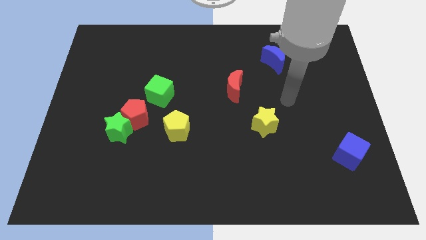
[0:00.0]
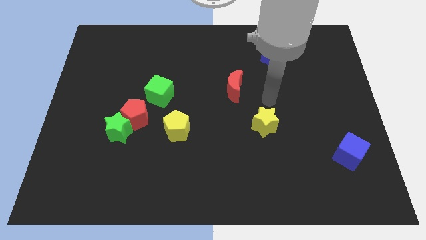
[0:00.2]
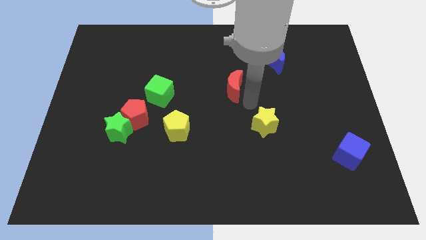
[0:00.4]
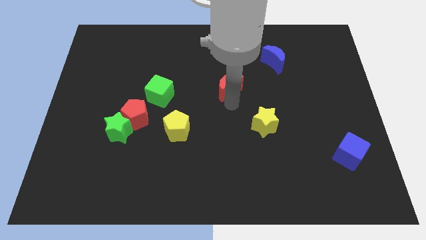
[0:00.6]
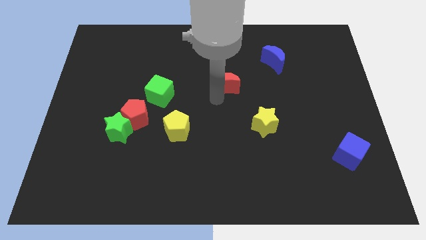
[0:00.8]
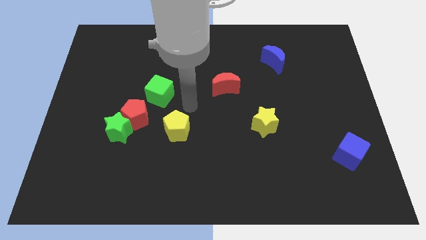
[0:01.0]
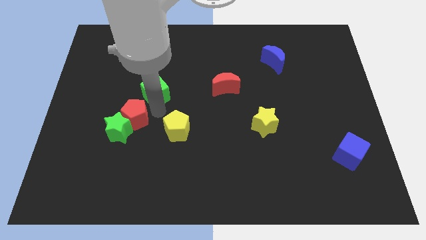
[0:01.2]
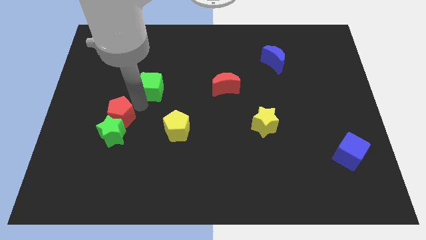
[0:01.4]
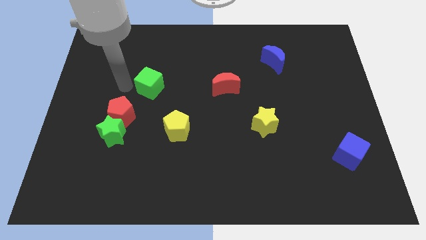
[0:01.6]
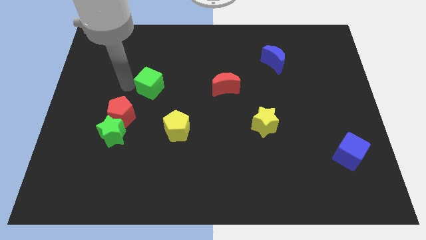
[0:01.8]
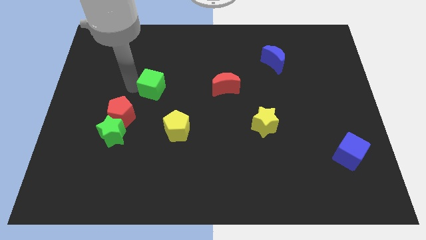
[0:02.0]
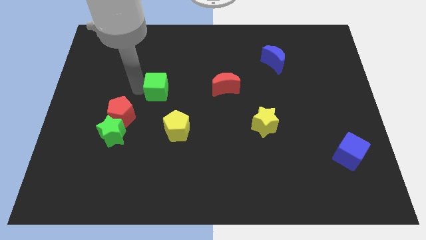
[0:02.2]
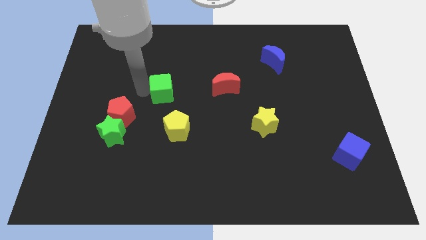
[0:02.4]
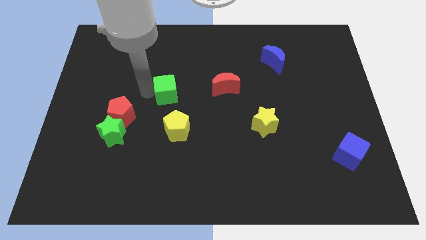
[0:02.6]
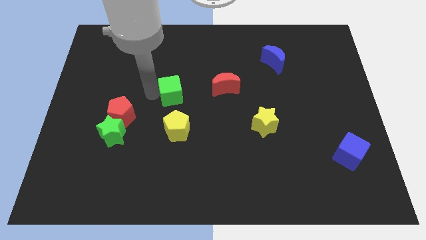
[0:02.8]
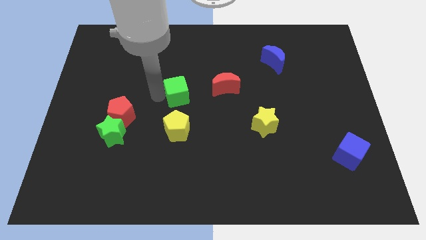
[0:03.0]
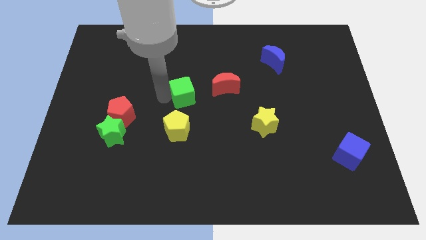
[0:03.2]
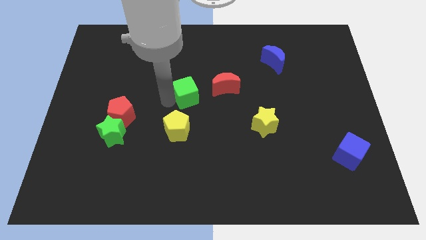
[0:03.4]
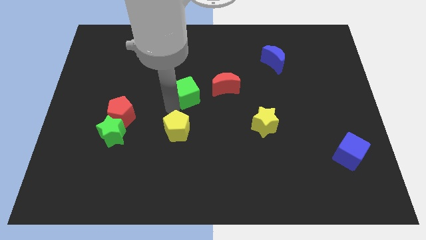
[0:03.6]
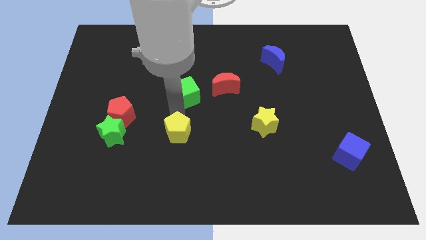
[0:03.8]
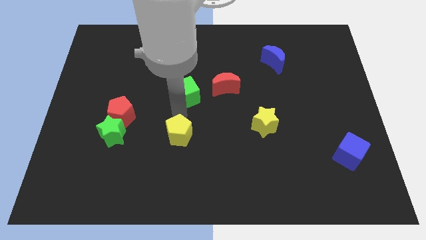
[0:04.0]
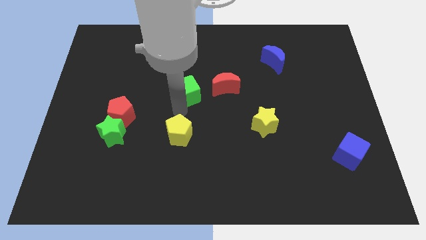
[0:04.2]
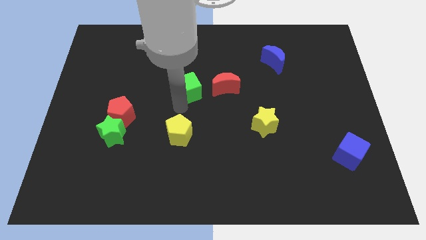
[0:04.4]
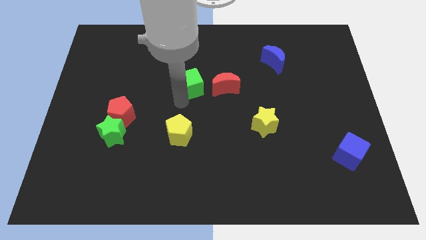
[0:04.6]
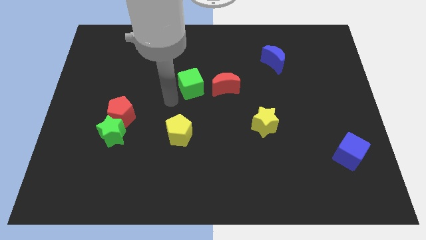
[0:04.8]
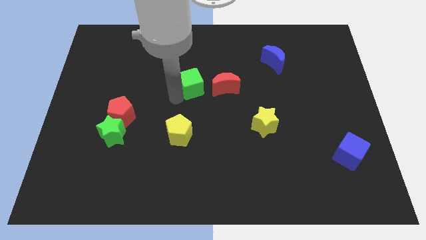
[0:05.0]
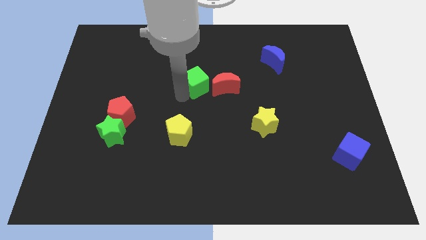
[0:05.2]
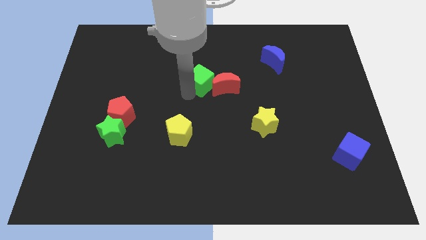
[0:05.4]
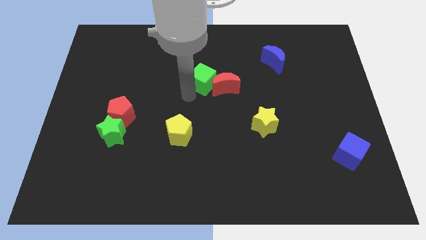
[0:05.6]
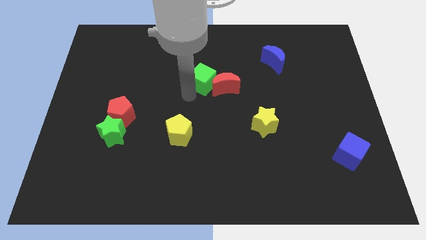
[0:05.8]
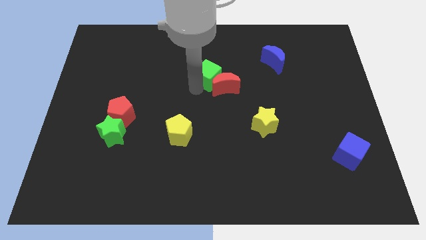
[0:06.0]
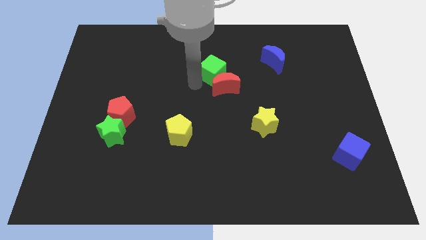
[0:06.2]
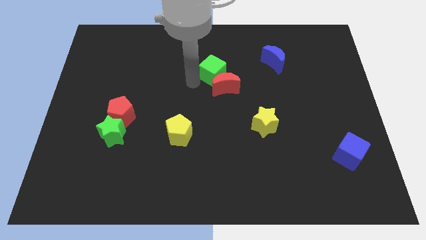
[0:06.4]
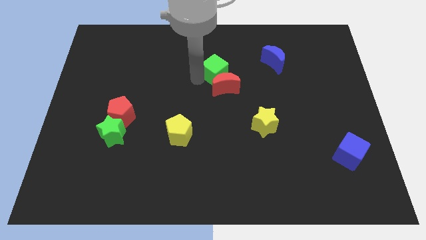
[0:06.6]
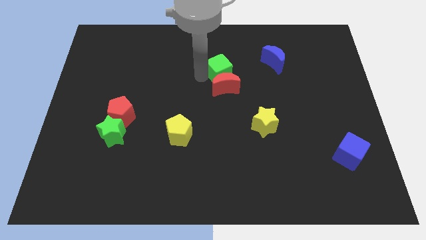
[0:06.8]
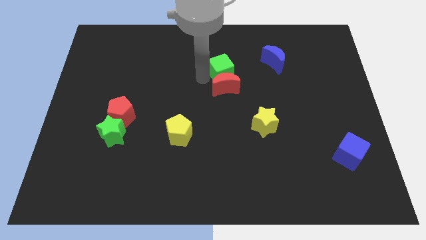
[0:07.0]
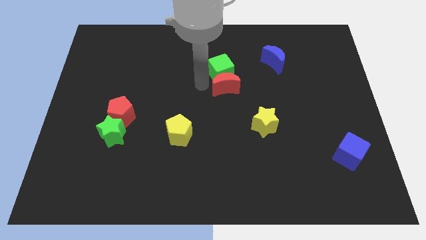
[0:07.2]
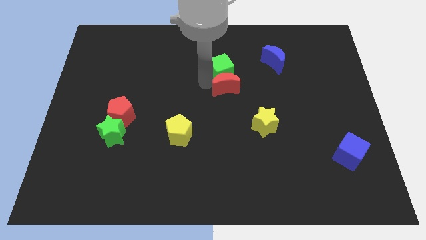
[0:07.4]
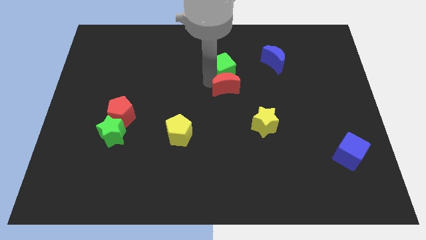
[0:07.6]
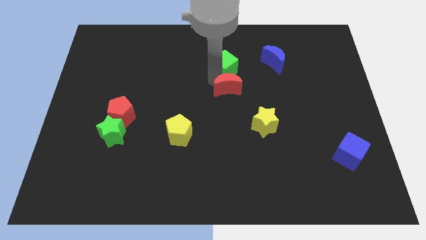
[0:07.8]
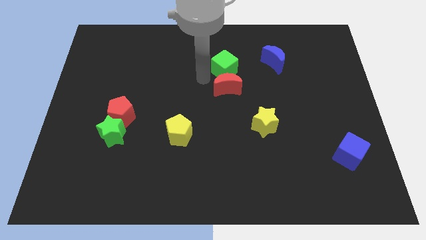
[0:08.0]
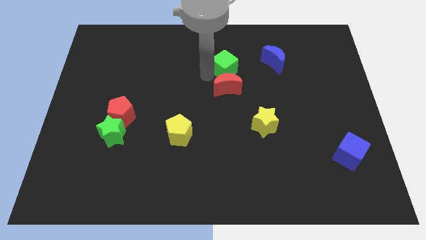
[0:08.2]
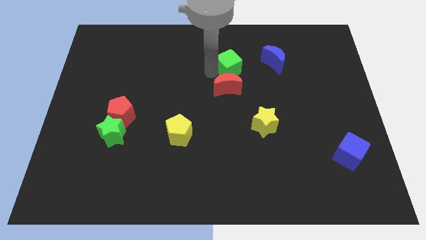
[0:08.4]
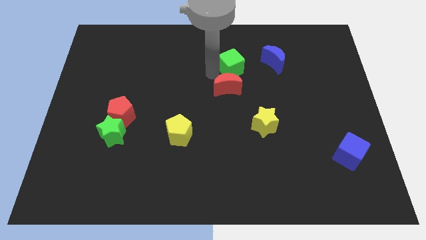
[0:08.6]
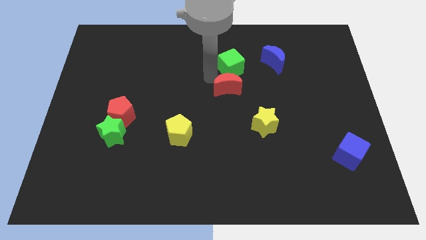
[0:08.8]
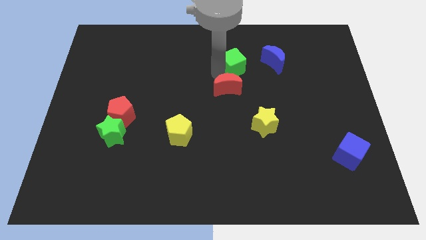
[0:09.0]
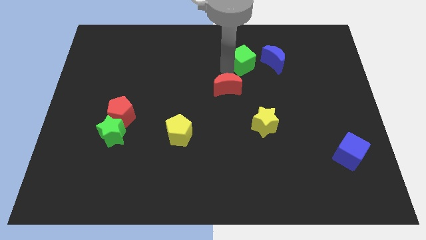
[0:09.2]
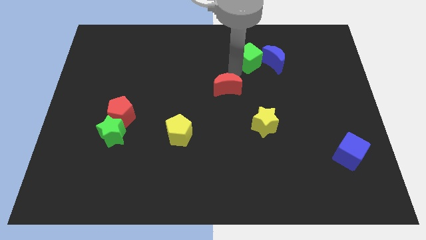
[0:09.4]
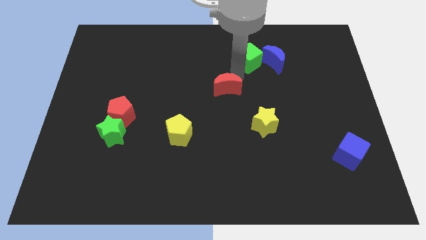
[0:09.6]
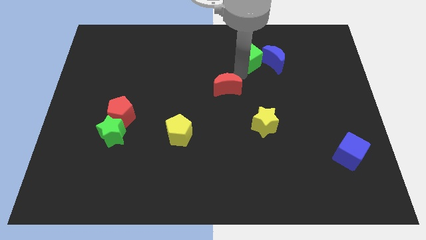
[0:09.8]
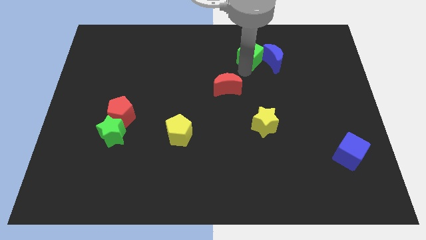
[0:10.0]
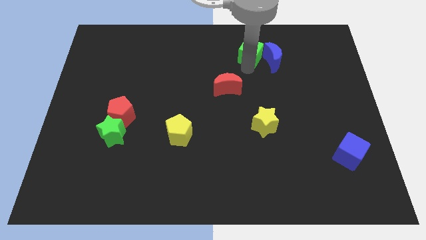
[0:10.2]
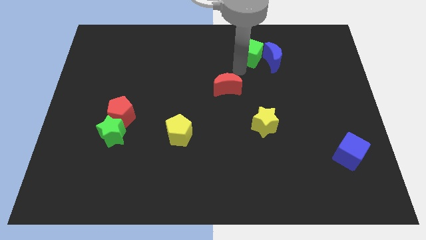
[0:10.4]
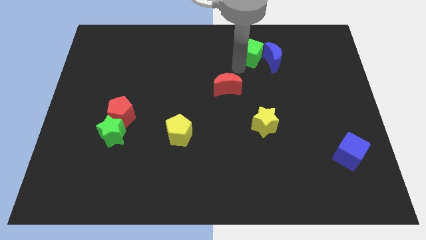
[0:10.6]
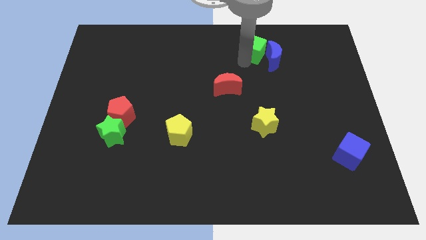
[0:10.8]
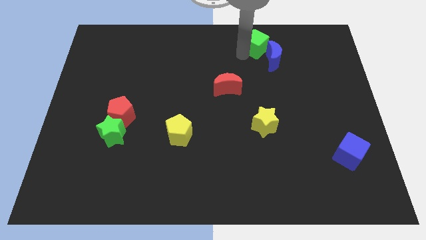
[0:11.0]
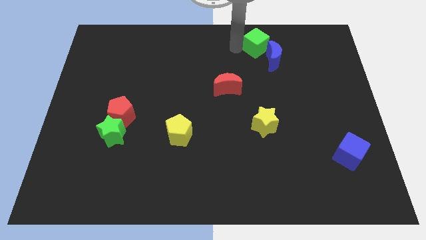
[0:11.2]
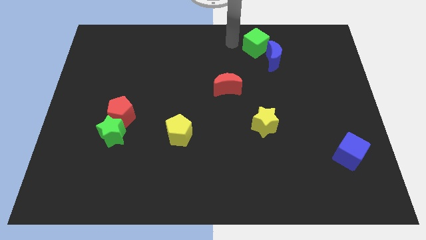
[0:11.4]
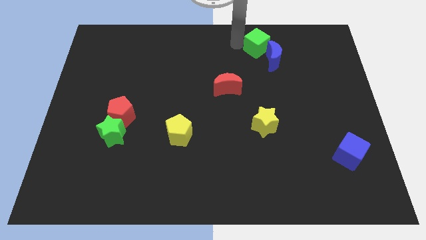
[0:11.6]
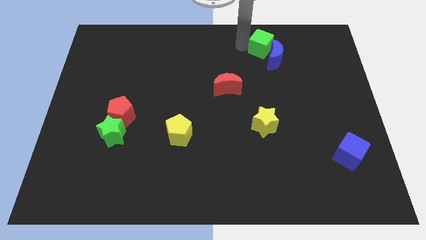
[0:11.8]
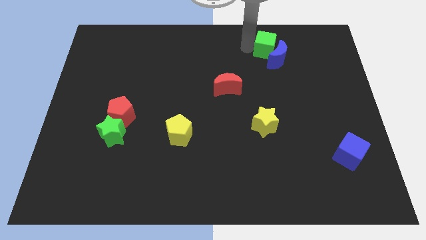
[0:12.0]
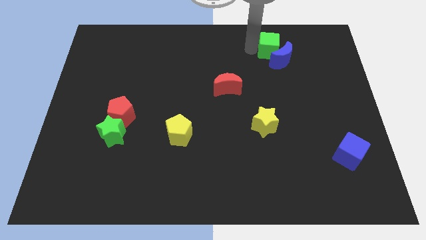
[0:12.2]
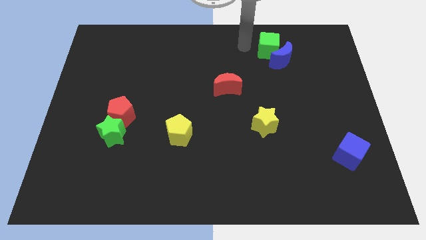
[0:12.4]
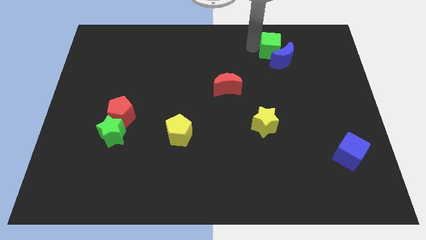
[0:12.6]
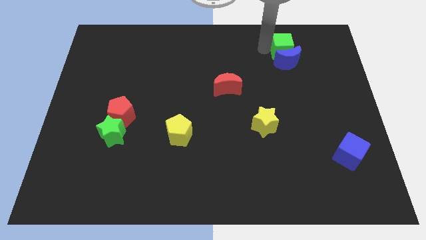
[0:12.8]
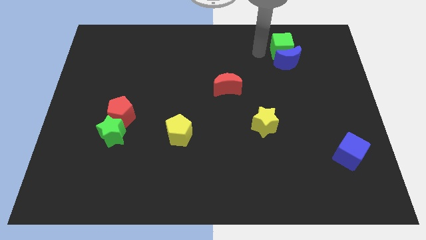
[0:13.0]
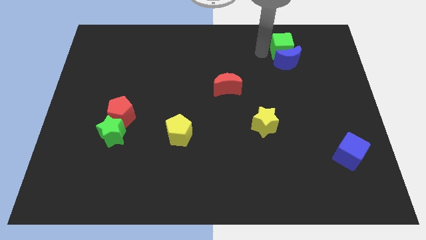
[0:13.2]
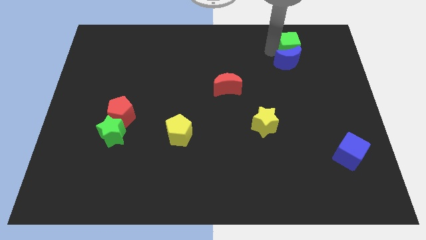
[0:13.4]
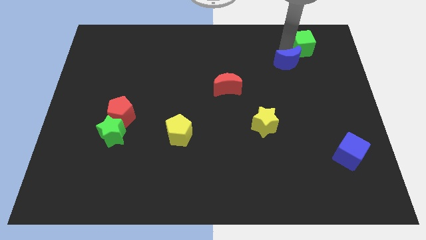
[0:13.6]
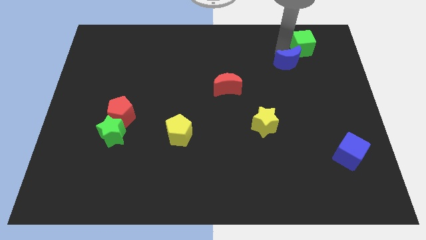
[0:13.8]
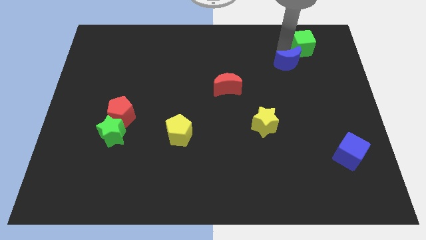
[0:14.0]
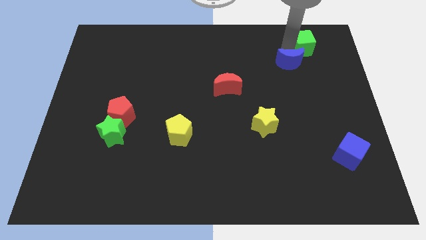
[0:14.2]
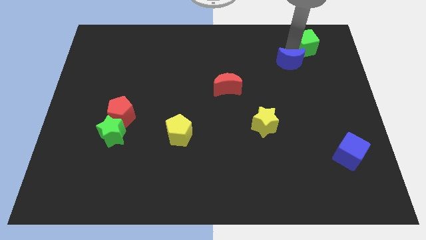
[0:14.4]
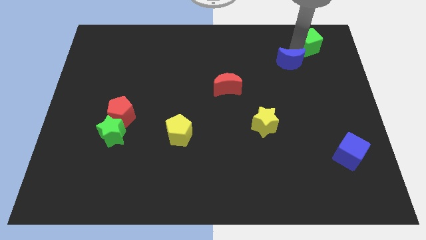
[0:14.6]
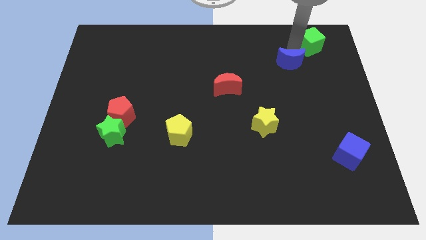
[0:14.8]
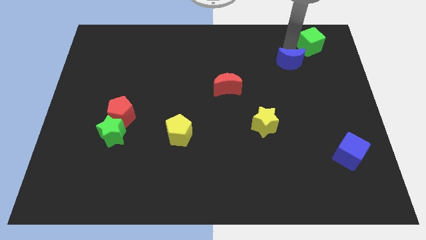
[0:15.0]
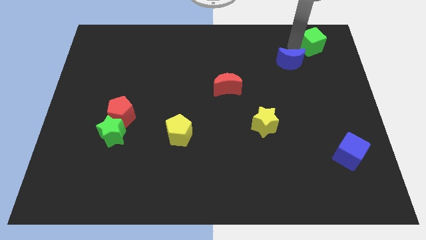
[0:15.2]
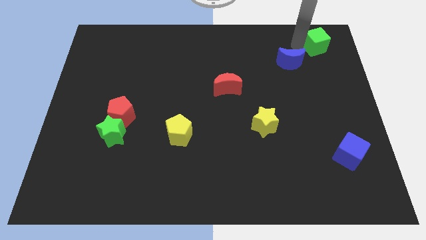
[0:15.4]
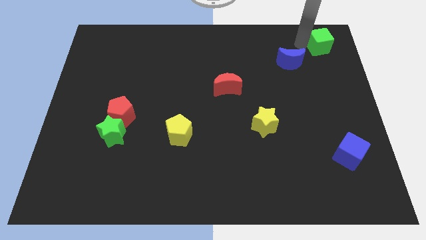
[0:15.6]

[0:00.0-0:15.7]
push the green cube to the top right of the board
